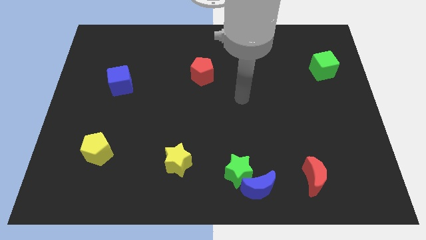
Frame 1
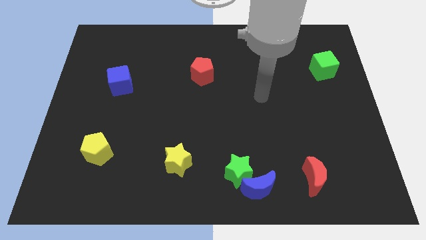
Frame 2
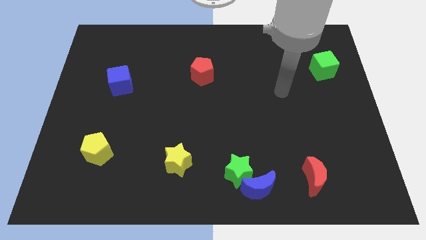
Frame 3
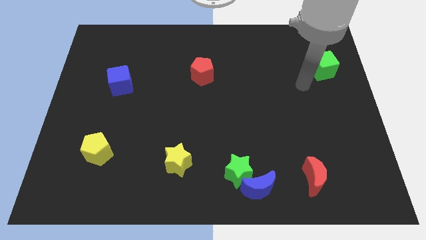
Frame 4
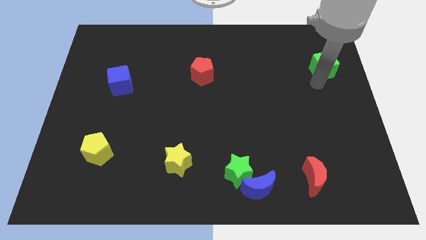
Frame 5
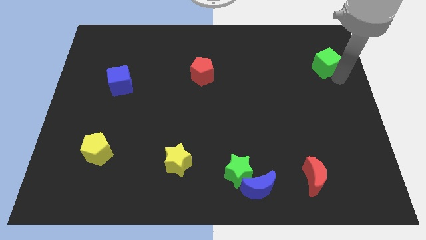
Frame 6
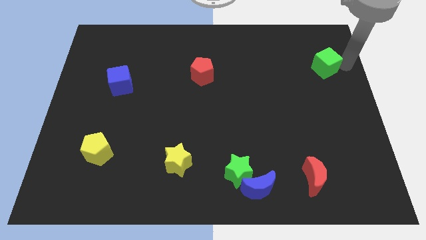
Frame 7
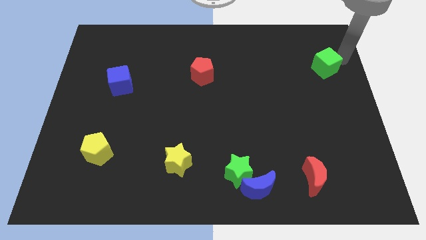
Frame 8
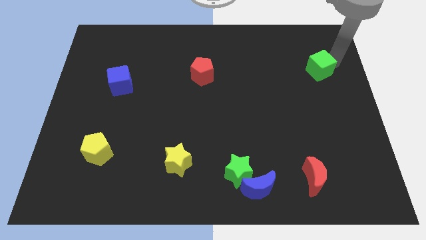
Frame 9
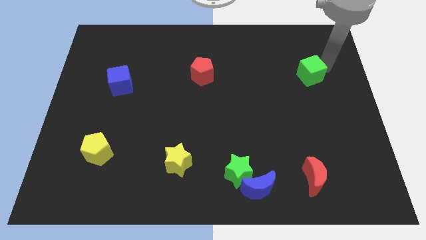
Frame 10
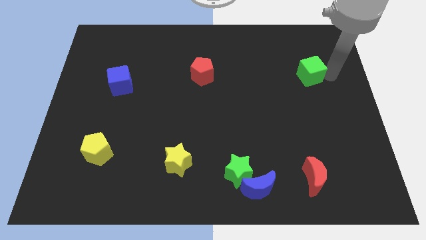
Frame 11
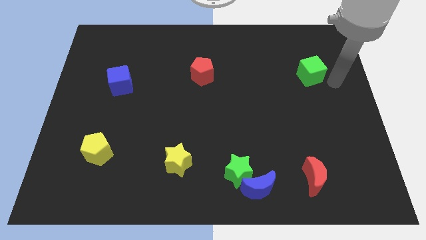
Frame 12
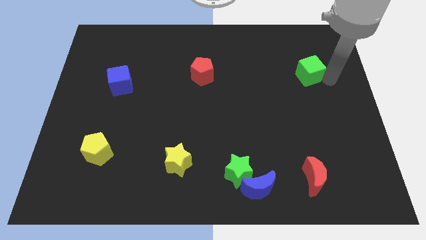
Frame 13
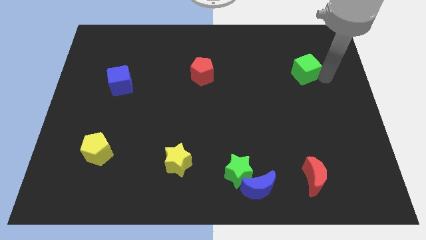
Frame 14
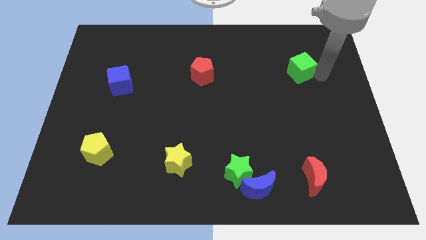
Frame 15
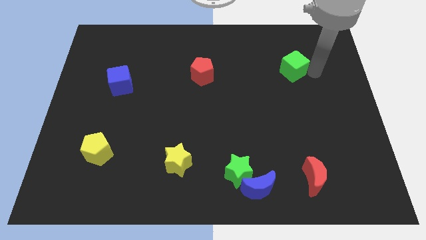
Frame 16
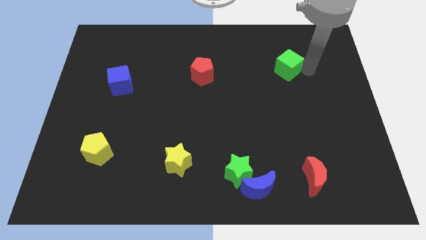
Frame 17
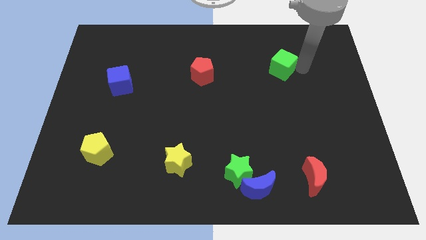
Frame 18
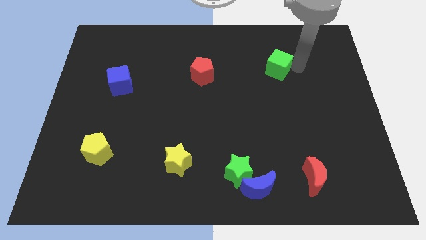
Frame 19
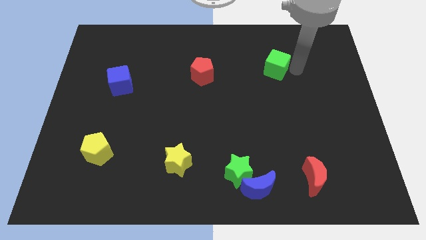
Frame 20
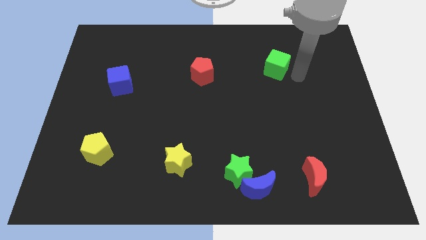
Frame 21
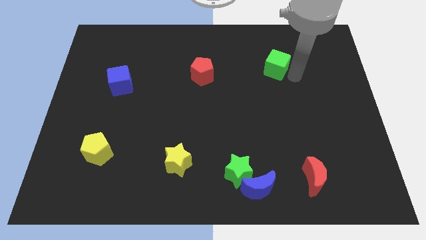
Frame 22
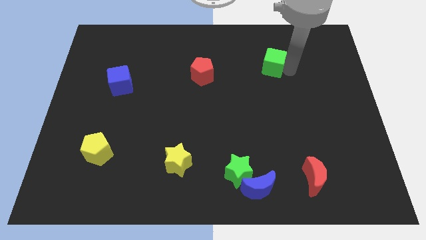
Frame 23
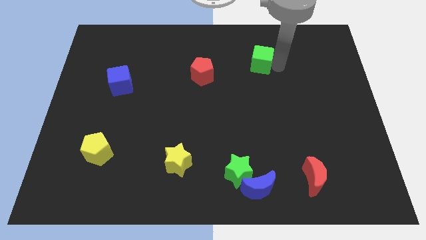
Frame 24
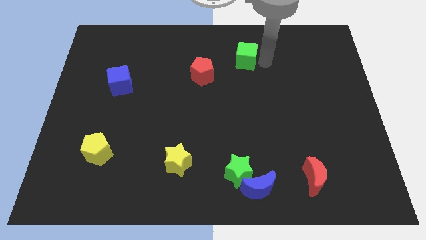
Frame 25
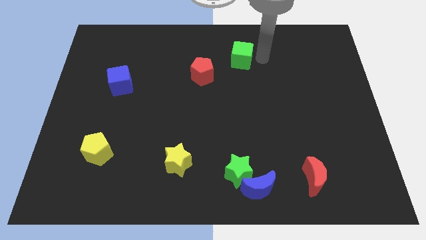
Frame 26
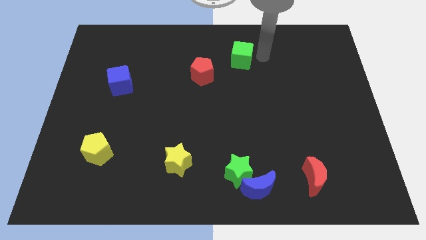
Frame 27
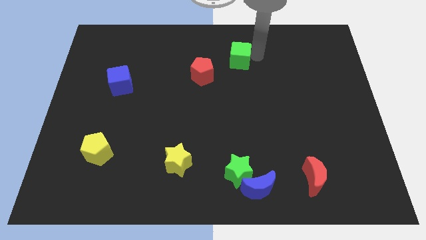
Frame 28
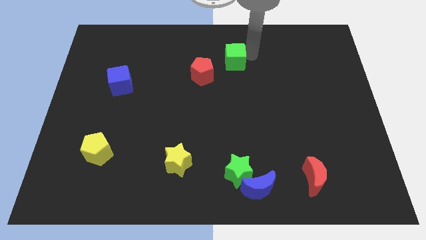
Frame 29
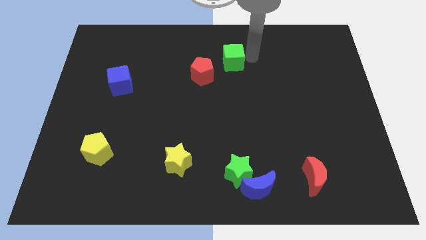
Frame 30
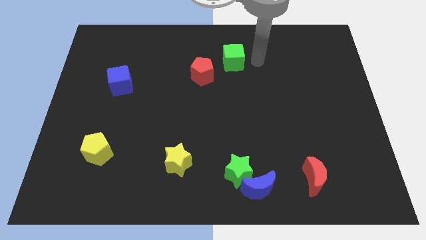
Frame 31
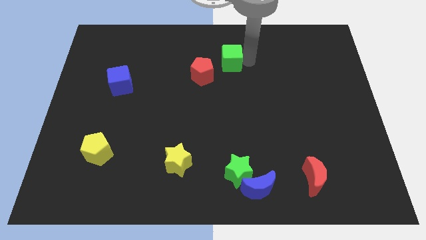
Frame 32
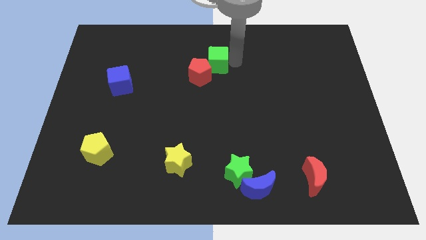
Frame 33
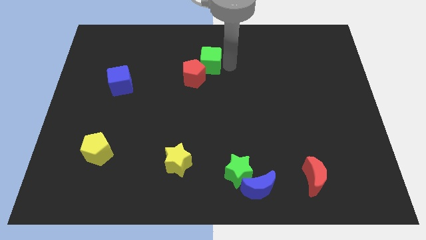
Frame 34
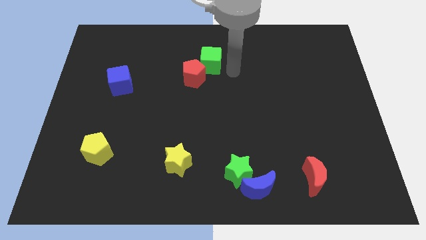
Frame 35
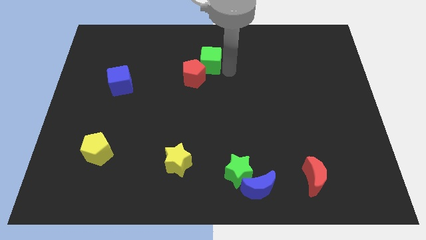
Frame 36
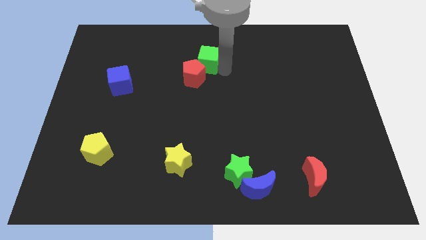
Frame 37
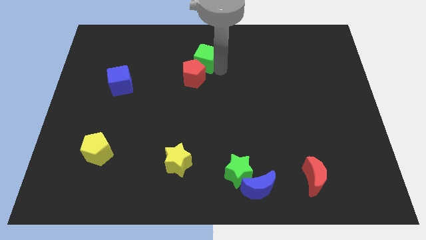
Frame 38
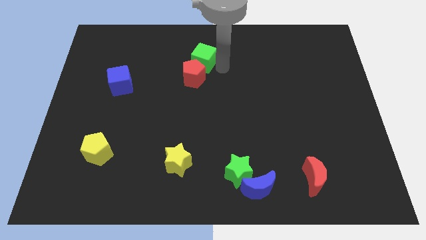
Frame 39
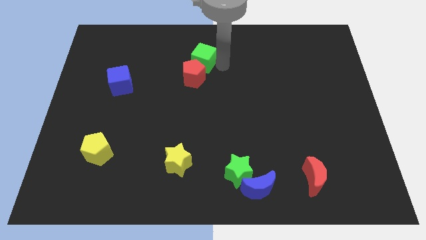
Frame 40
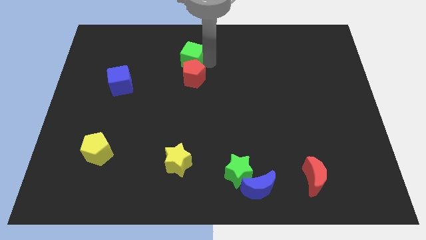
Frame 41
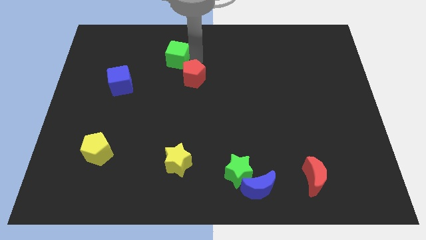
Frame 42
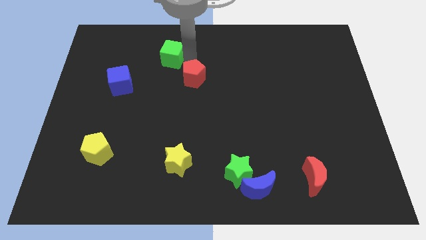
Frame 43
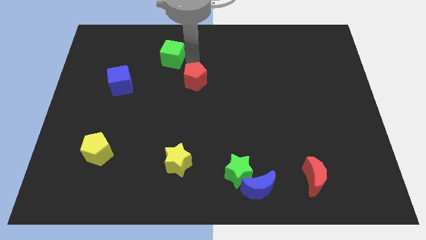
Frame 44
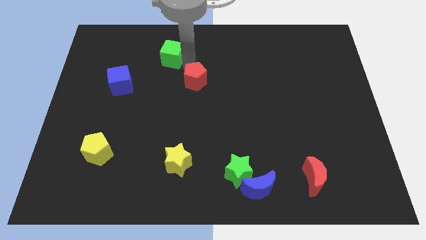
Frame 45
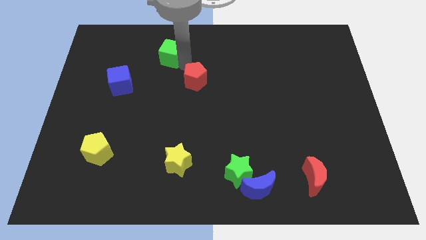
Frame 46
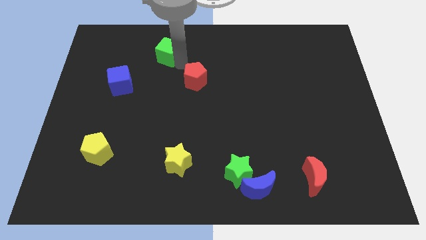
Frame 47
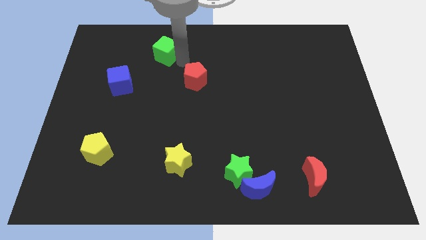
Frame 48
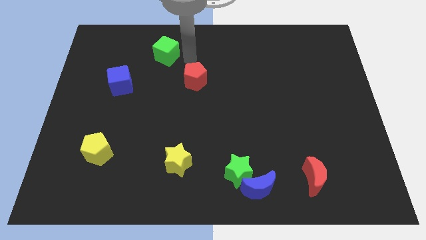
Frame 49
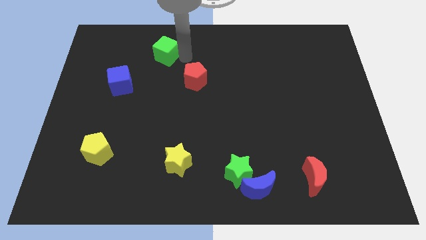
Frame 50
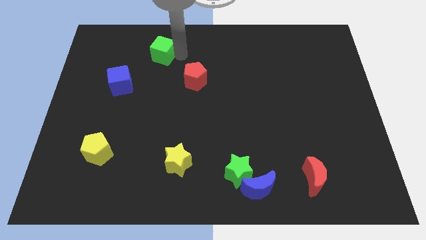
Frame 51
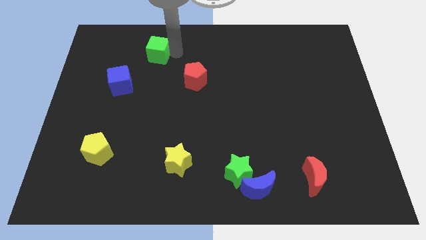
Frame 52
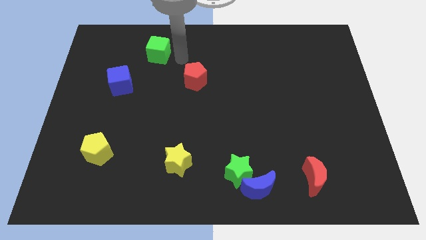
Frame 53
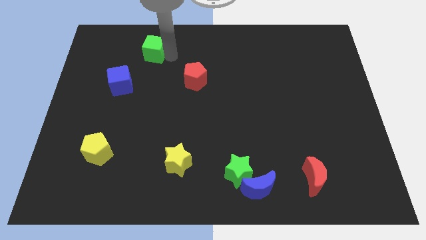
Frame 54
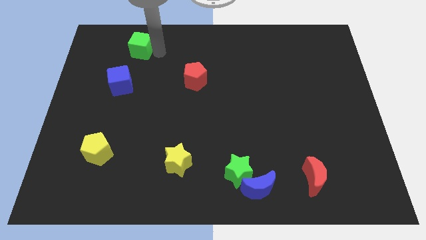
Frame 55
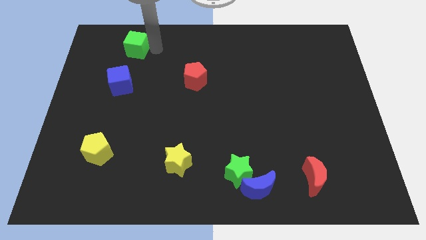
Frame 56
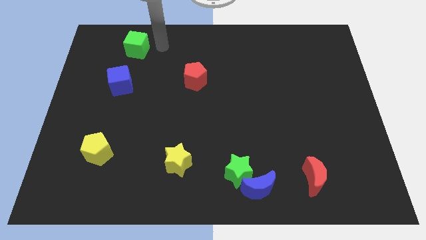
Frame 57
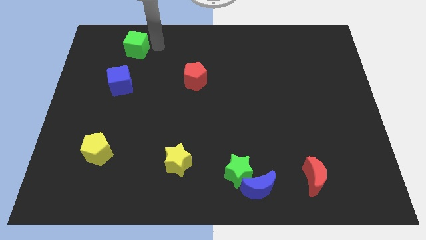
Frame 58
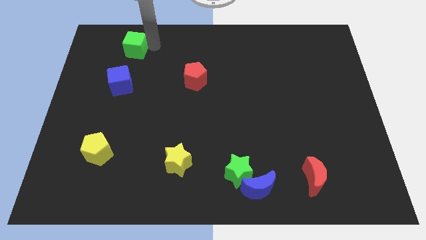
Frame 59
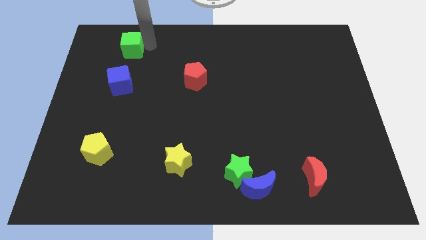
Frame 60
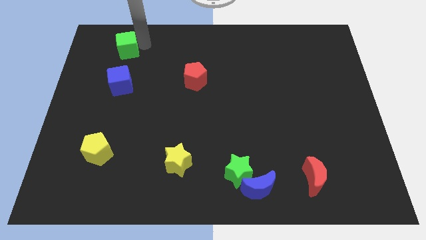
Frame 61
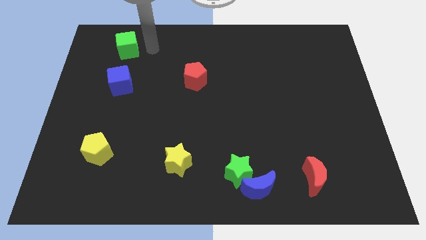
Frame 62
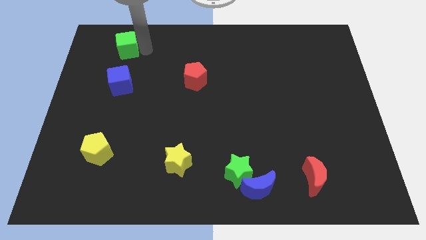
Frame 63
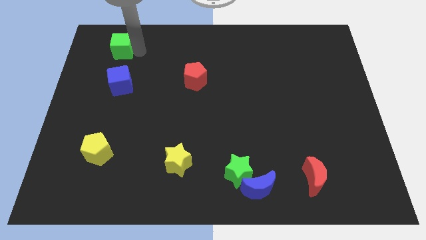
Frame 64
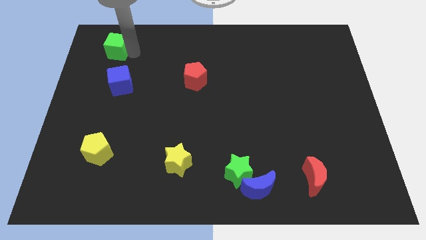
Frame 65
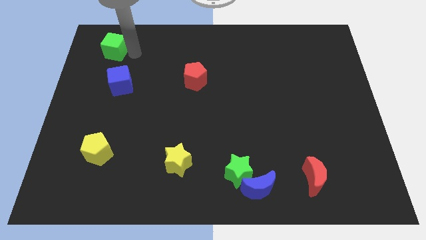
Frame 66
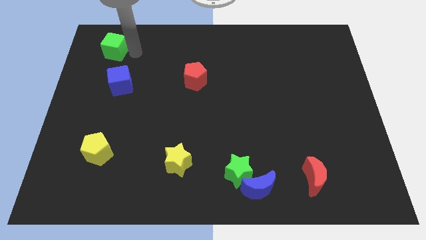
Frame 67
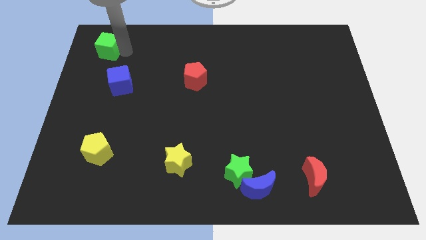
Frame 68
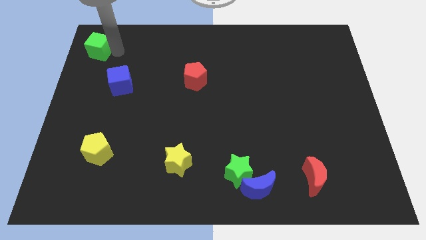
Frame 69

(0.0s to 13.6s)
move the green cube to the top left
